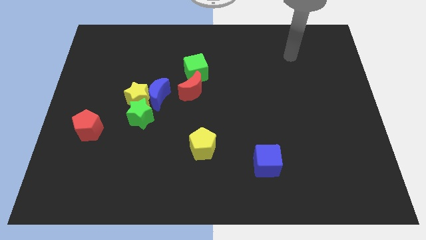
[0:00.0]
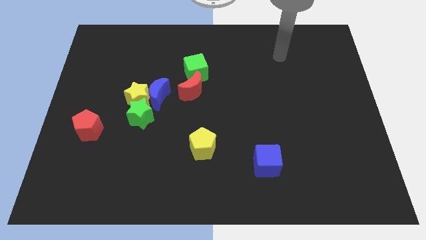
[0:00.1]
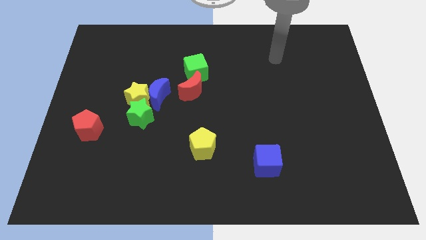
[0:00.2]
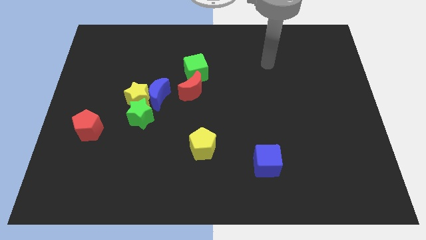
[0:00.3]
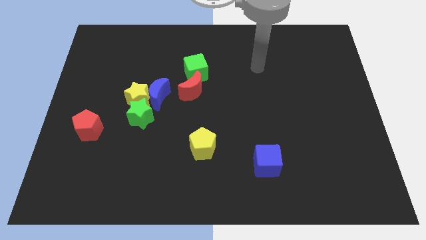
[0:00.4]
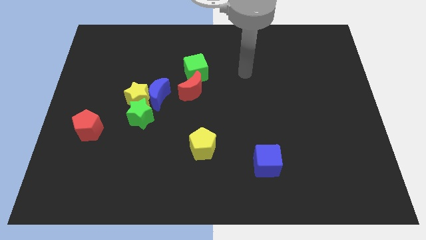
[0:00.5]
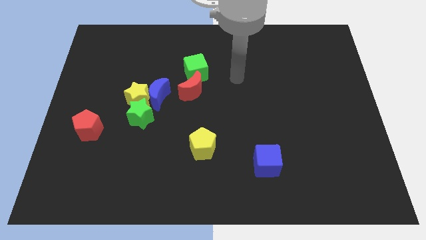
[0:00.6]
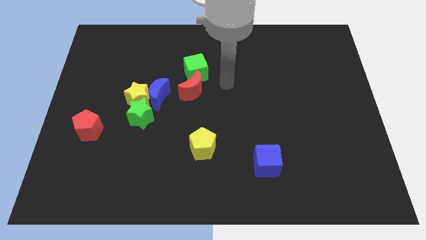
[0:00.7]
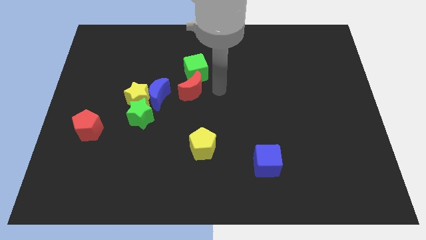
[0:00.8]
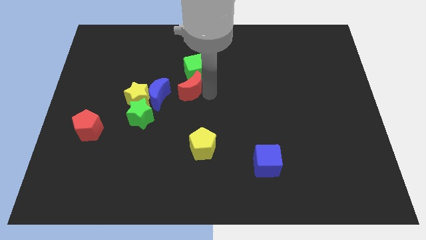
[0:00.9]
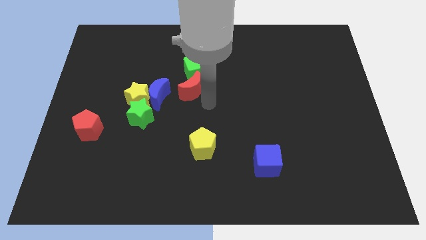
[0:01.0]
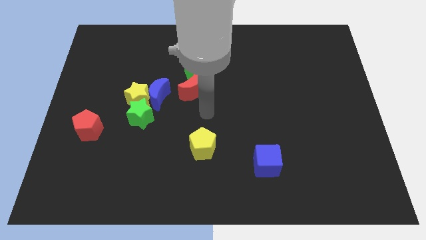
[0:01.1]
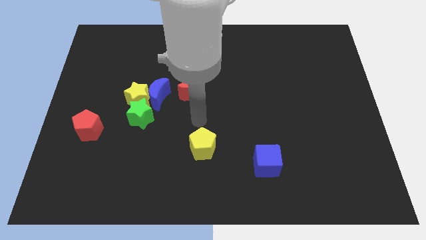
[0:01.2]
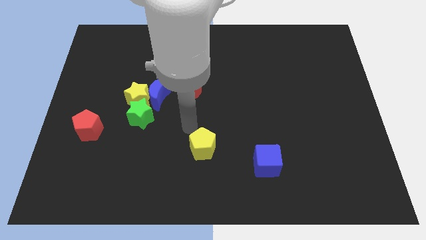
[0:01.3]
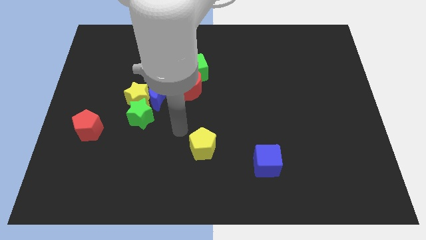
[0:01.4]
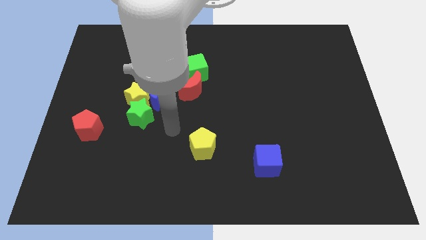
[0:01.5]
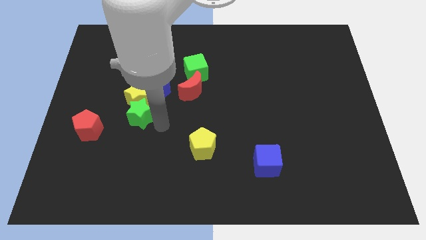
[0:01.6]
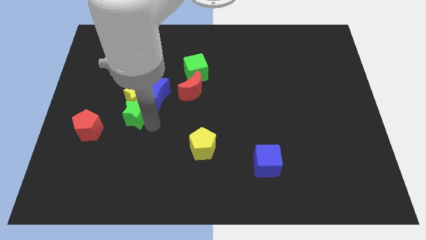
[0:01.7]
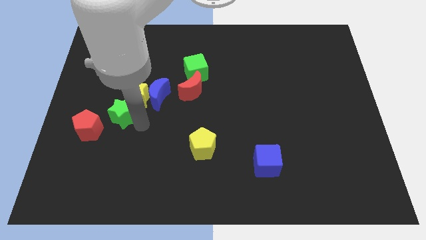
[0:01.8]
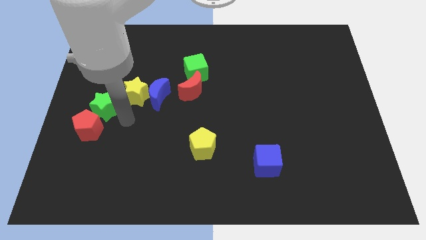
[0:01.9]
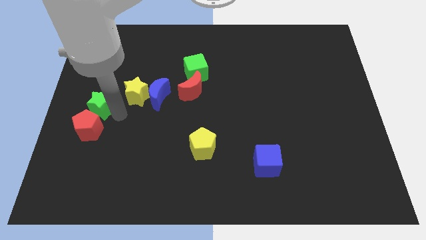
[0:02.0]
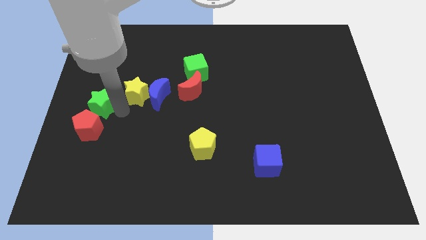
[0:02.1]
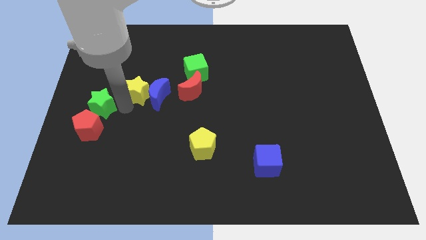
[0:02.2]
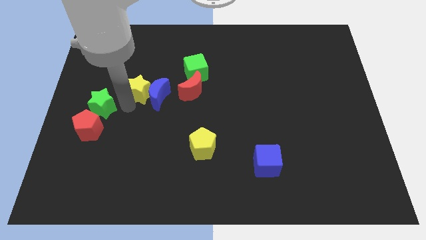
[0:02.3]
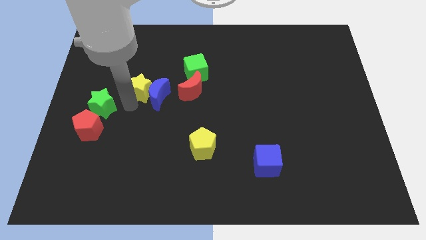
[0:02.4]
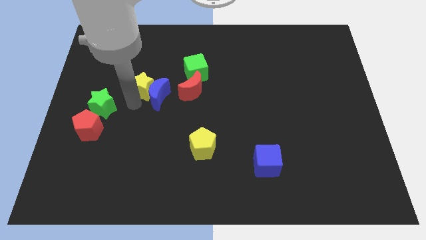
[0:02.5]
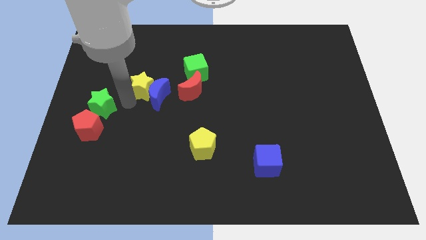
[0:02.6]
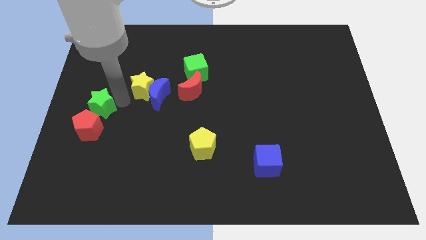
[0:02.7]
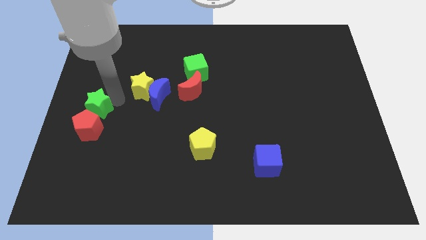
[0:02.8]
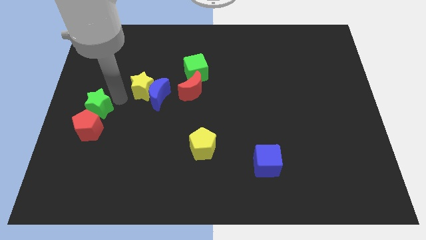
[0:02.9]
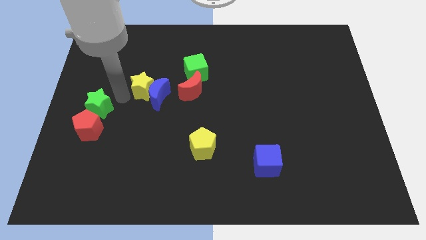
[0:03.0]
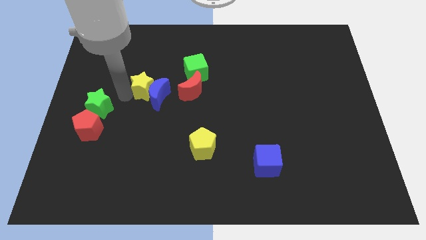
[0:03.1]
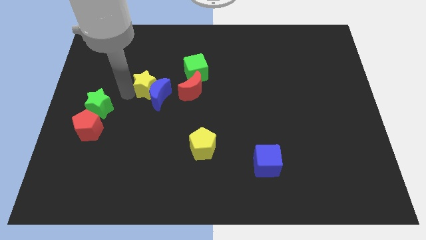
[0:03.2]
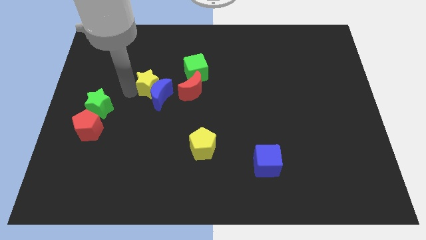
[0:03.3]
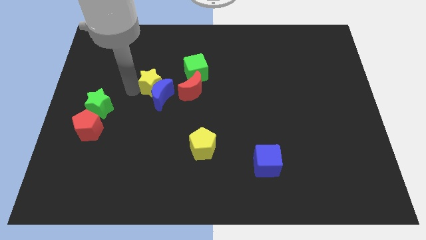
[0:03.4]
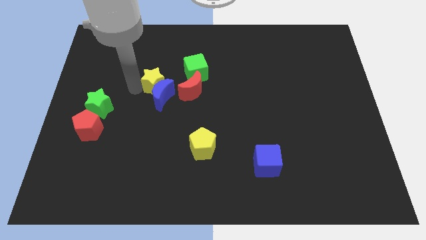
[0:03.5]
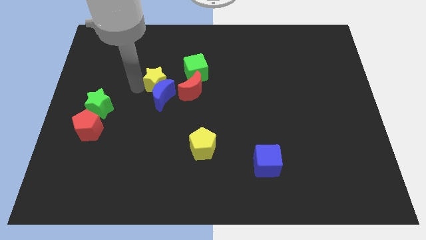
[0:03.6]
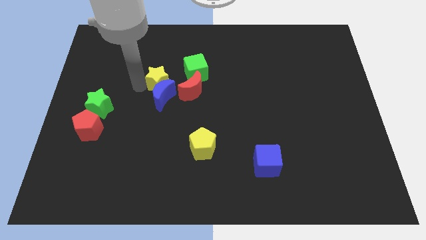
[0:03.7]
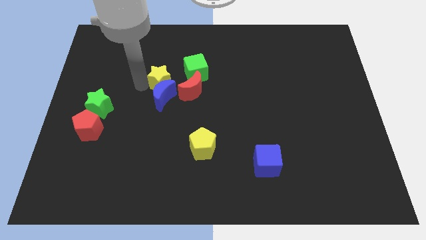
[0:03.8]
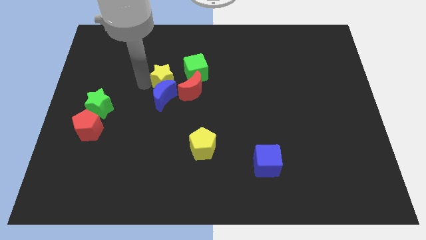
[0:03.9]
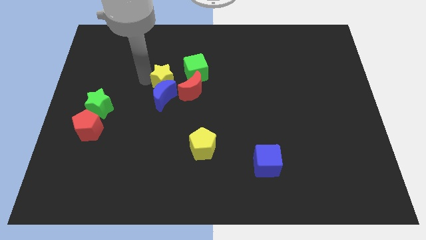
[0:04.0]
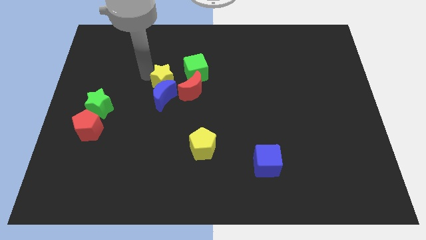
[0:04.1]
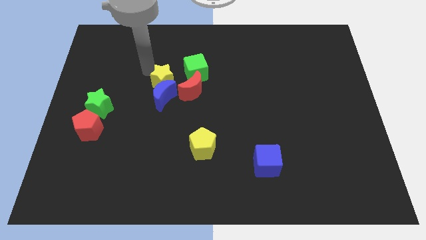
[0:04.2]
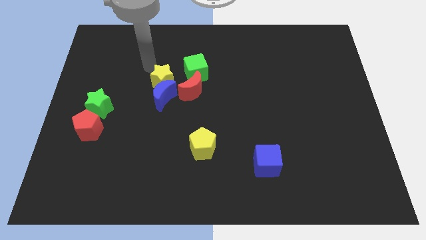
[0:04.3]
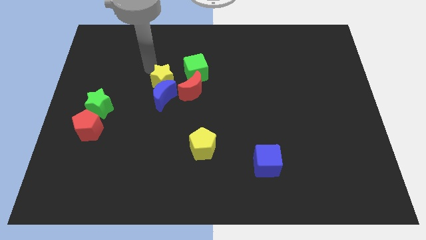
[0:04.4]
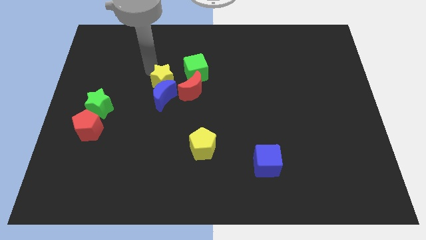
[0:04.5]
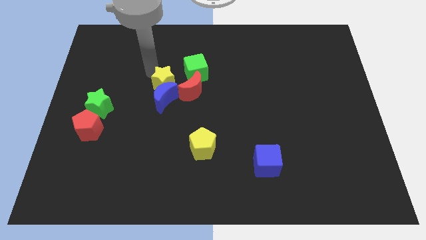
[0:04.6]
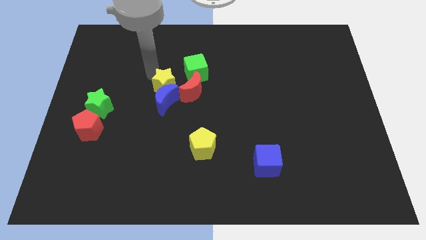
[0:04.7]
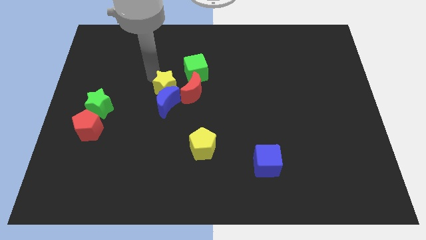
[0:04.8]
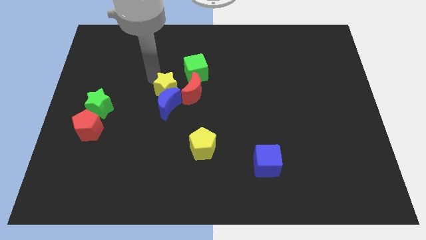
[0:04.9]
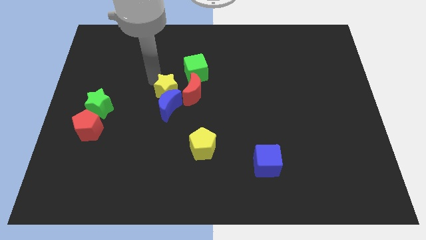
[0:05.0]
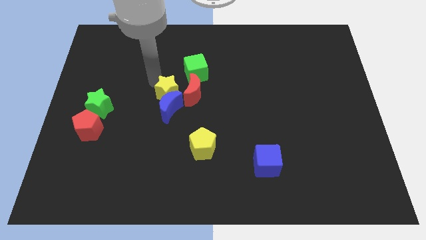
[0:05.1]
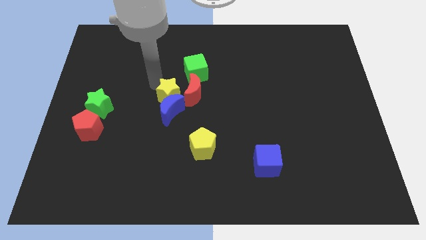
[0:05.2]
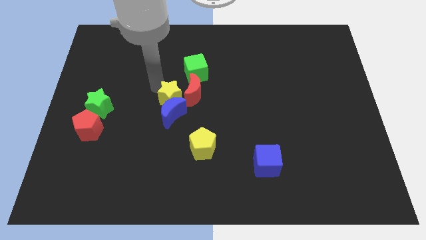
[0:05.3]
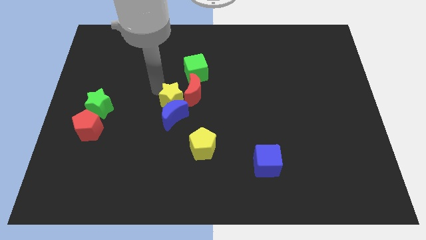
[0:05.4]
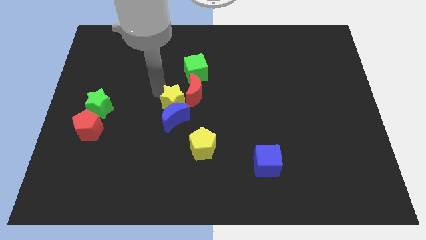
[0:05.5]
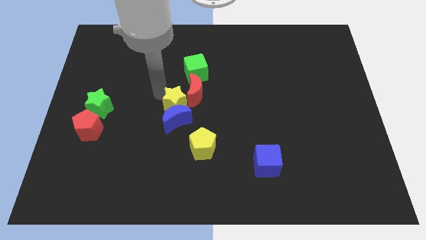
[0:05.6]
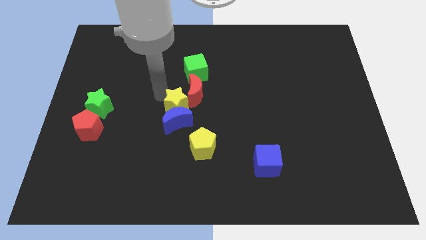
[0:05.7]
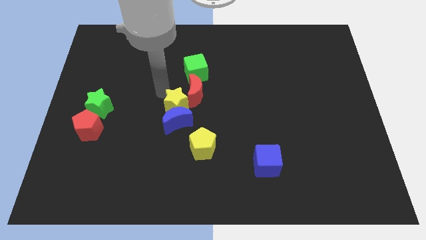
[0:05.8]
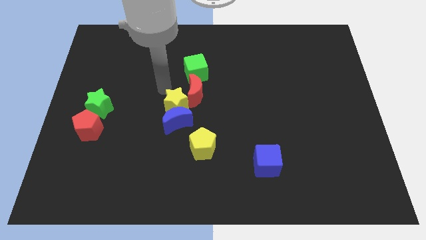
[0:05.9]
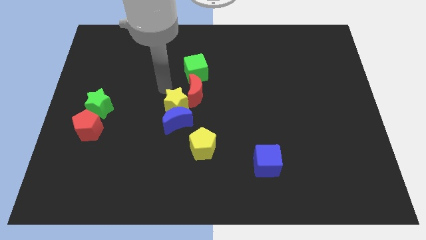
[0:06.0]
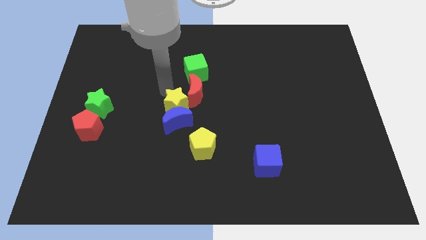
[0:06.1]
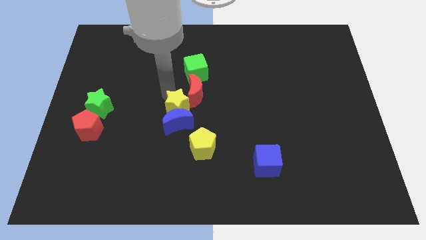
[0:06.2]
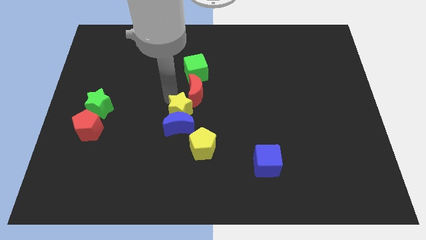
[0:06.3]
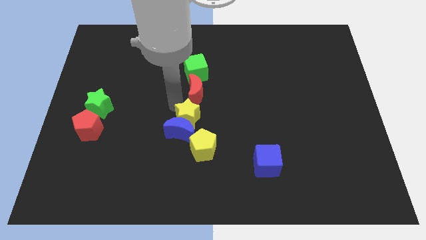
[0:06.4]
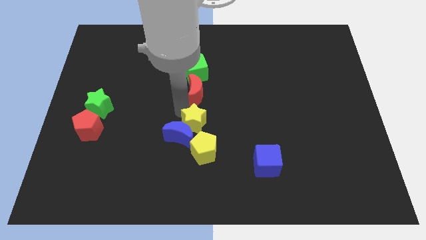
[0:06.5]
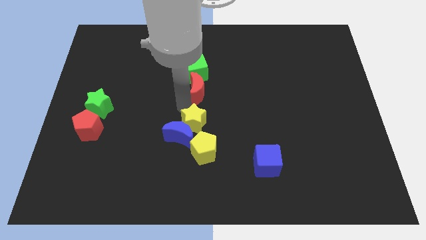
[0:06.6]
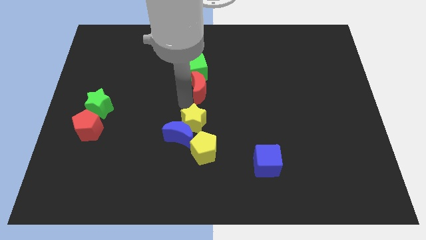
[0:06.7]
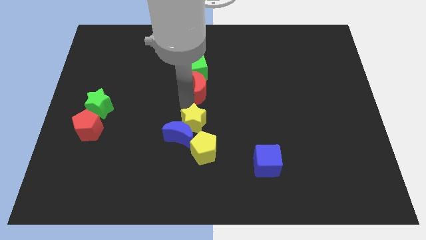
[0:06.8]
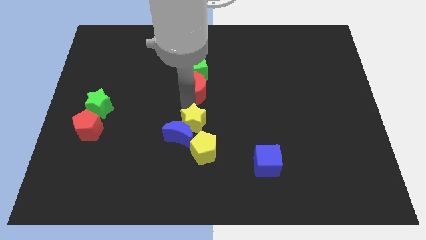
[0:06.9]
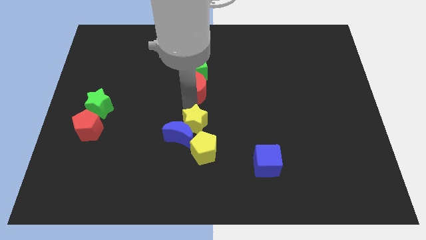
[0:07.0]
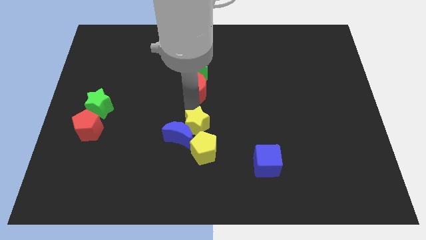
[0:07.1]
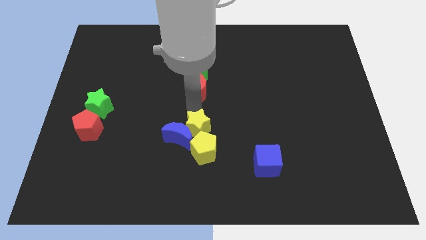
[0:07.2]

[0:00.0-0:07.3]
put the yellow star towards the yellow pentagon

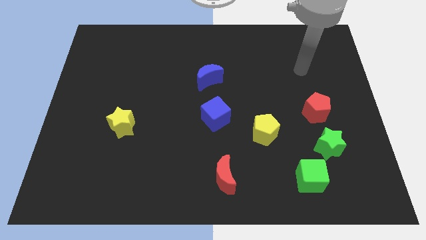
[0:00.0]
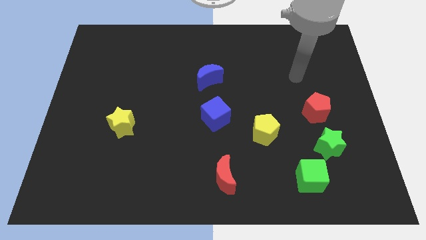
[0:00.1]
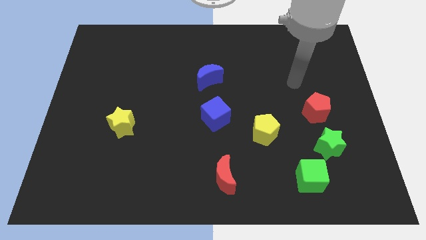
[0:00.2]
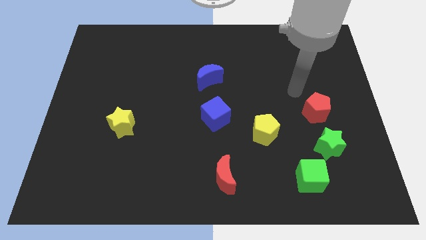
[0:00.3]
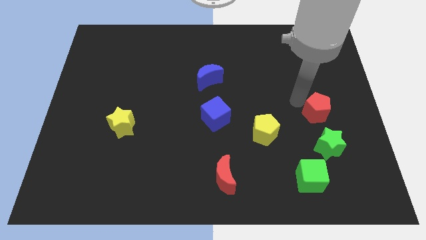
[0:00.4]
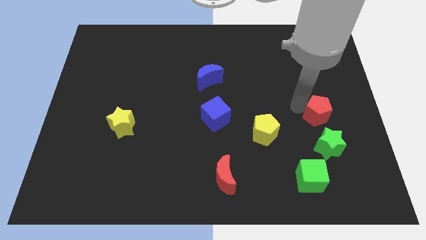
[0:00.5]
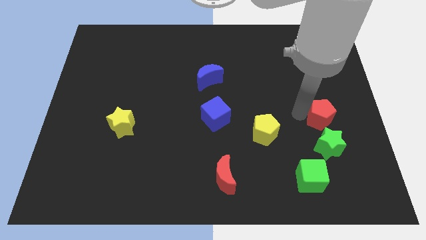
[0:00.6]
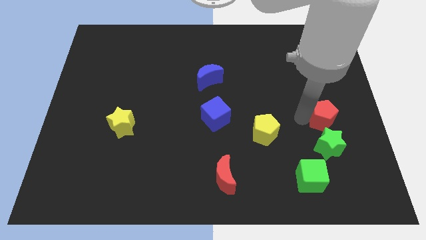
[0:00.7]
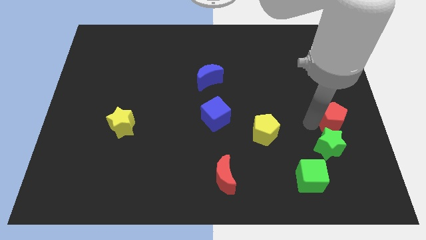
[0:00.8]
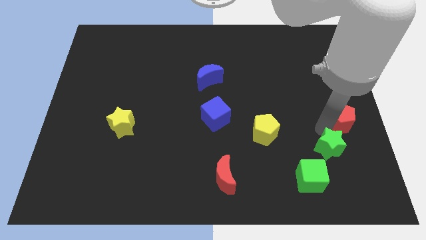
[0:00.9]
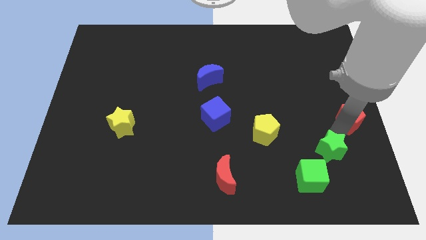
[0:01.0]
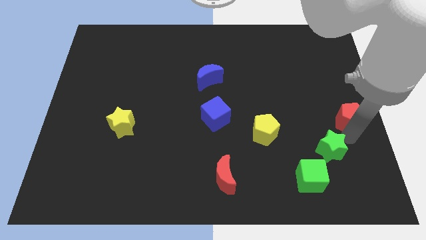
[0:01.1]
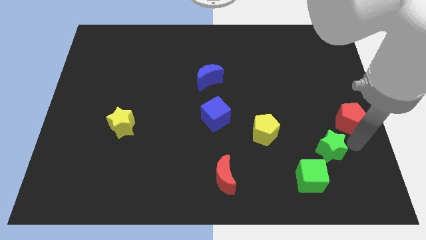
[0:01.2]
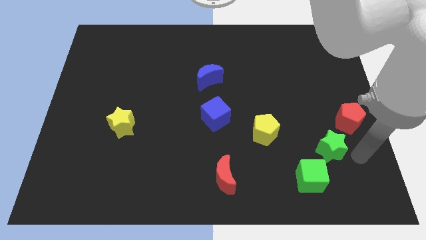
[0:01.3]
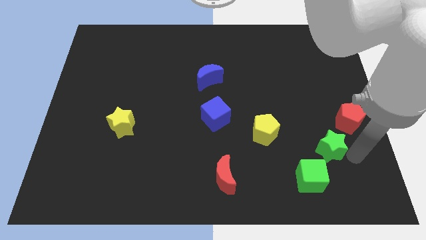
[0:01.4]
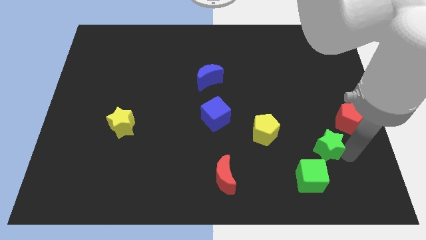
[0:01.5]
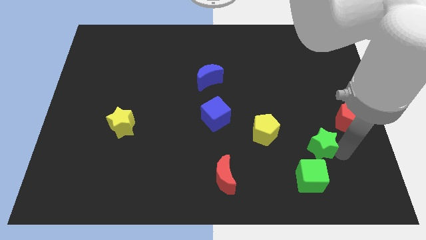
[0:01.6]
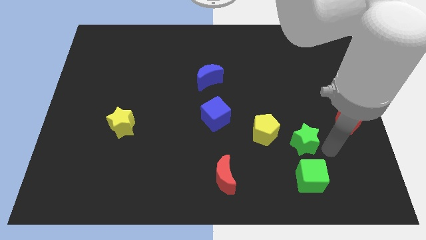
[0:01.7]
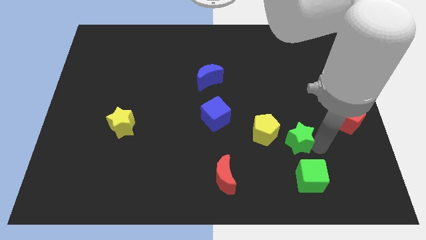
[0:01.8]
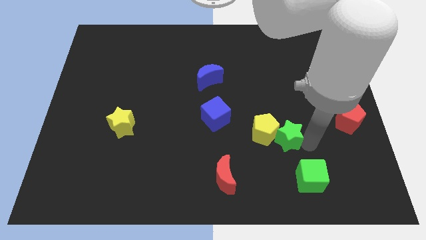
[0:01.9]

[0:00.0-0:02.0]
put the green star to the yellow pentagon
